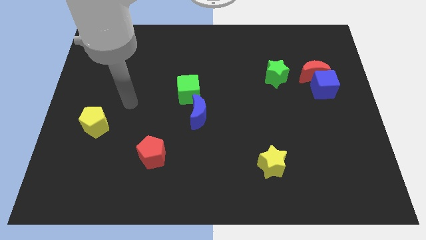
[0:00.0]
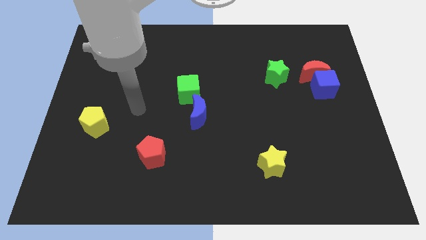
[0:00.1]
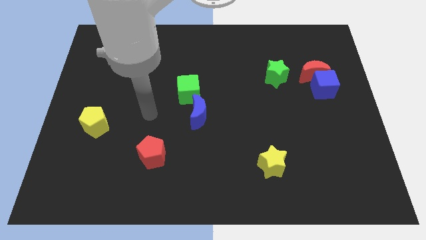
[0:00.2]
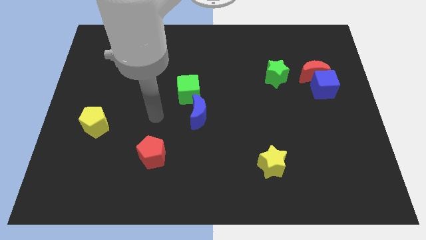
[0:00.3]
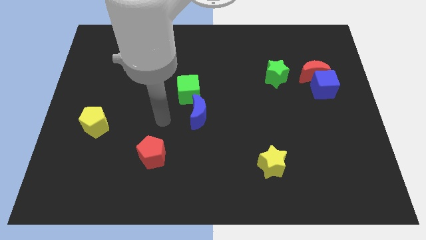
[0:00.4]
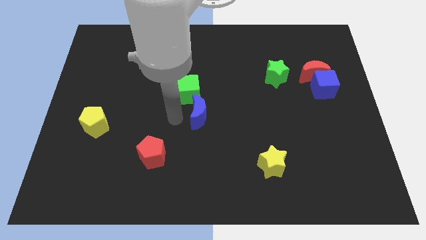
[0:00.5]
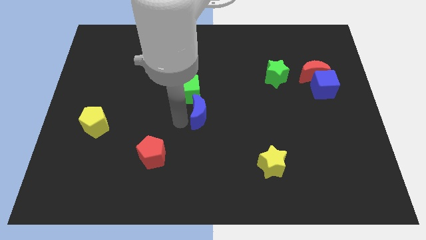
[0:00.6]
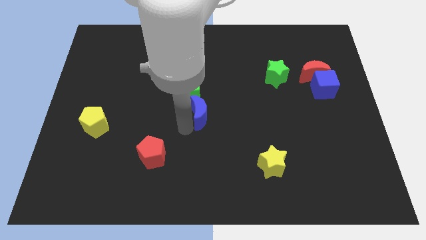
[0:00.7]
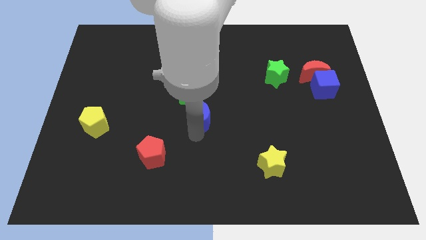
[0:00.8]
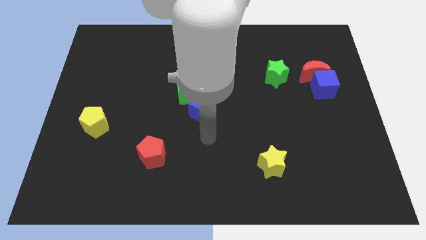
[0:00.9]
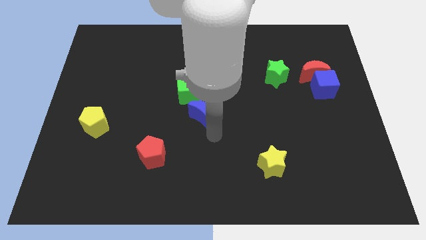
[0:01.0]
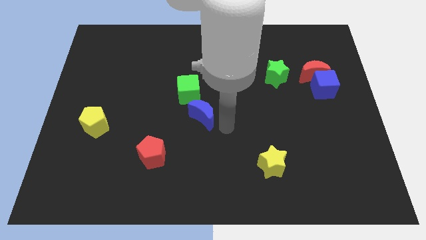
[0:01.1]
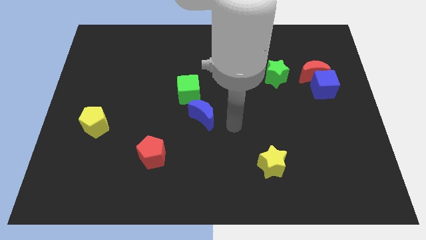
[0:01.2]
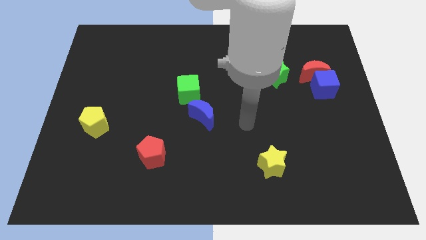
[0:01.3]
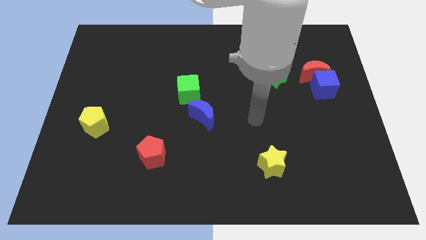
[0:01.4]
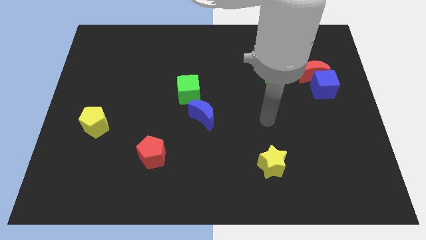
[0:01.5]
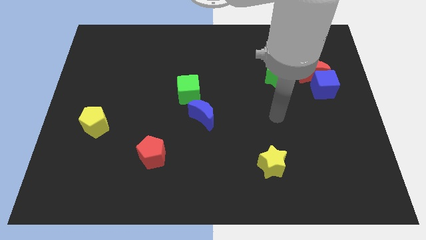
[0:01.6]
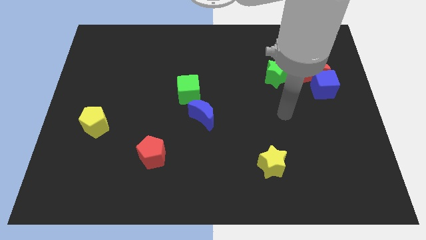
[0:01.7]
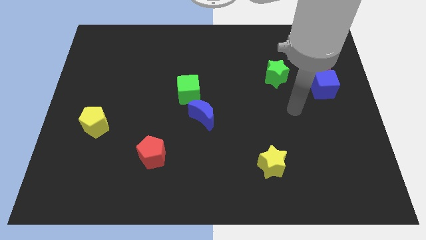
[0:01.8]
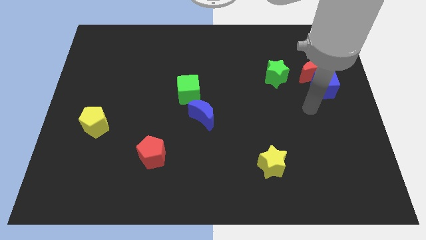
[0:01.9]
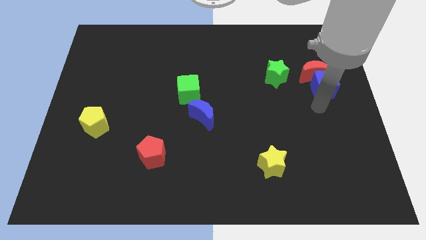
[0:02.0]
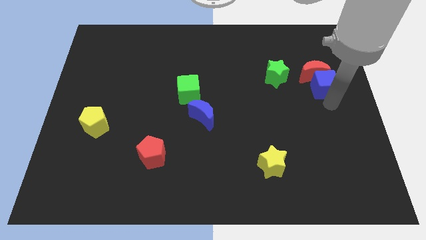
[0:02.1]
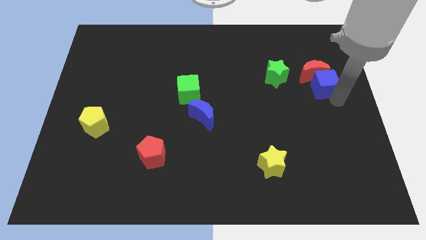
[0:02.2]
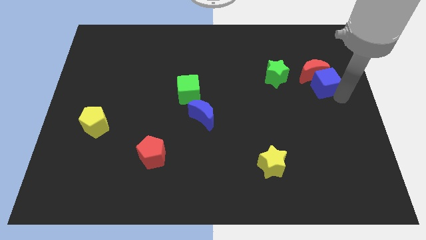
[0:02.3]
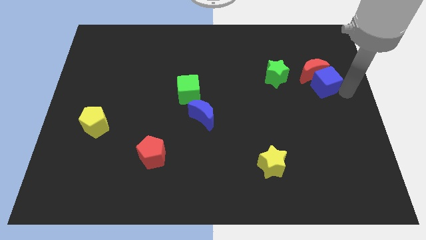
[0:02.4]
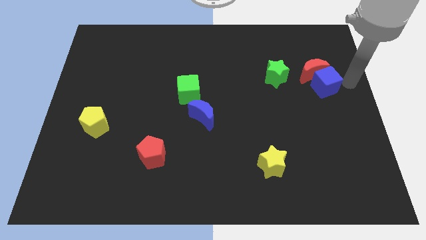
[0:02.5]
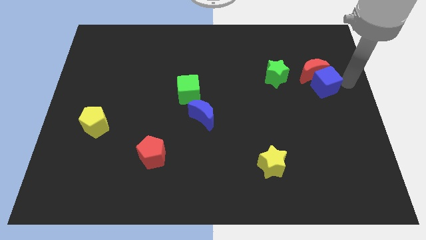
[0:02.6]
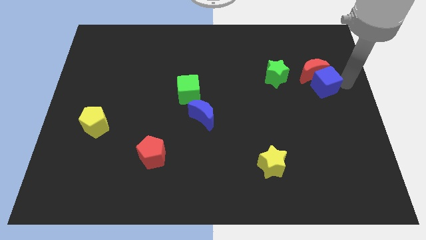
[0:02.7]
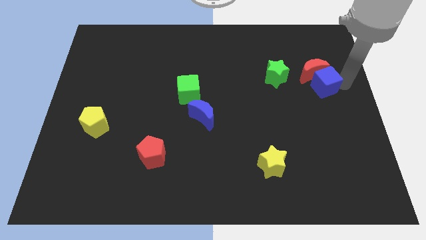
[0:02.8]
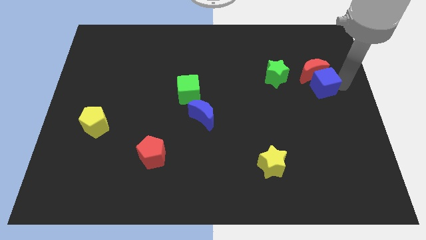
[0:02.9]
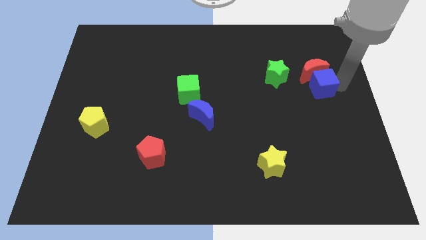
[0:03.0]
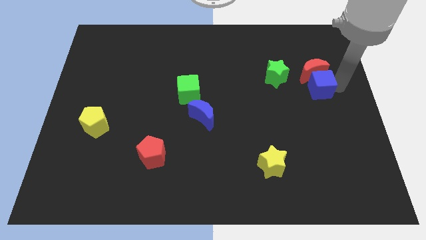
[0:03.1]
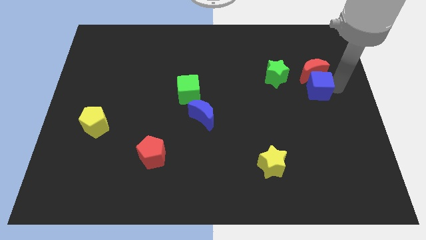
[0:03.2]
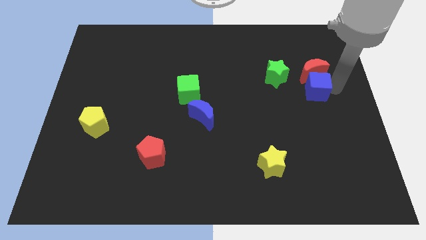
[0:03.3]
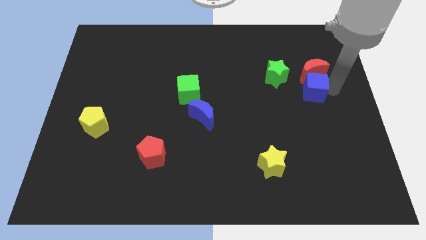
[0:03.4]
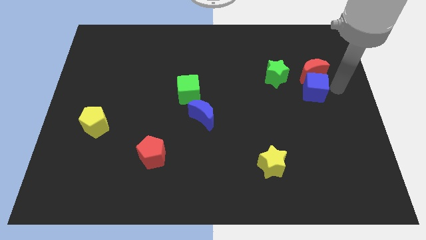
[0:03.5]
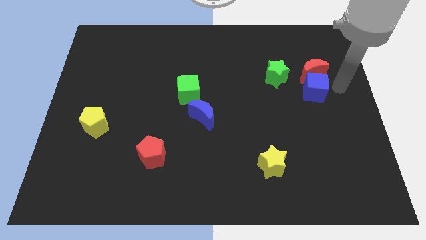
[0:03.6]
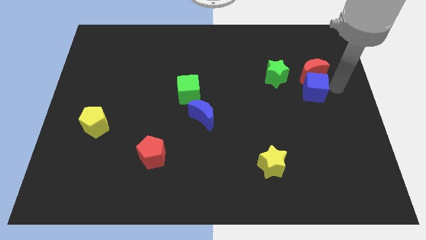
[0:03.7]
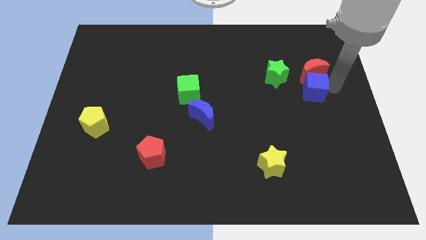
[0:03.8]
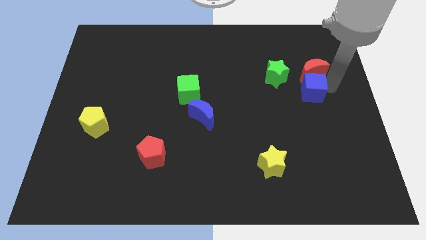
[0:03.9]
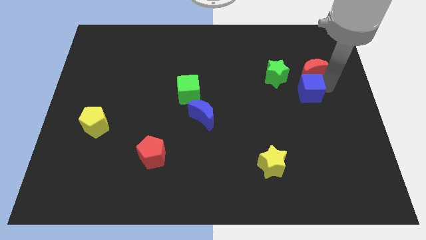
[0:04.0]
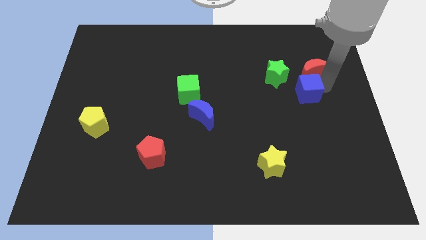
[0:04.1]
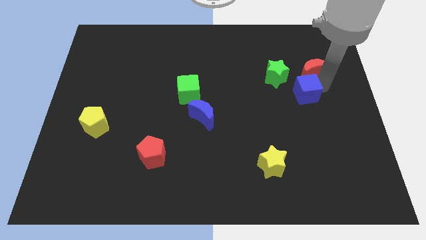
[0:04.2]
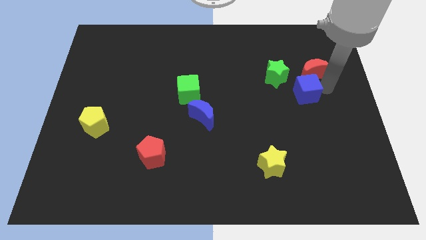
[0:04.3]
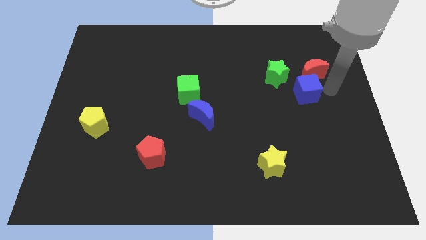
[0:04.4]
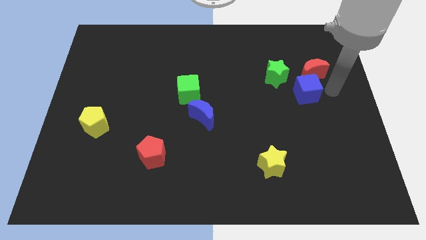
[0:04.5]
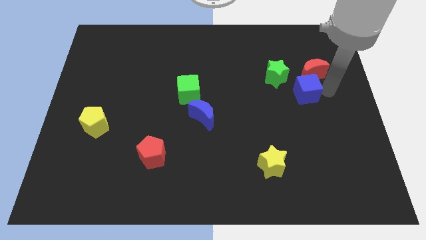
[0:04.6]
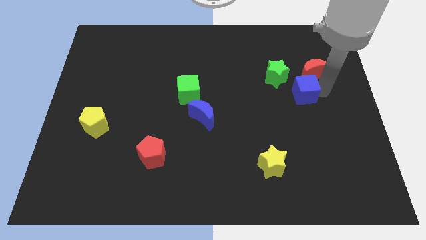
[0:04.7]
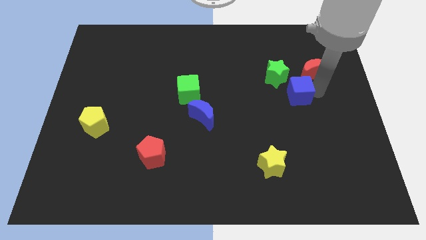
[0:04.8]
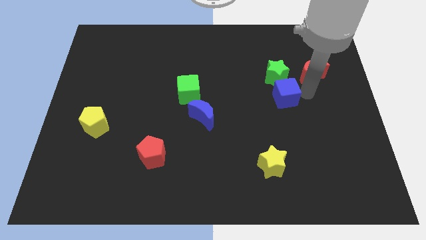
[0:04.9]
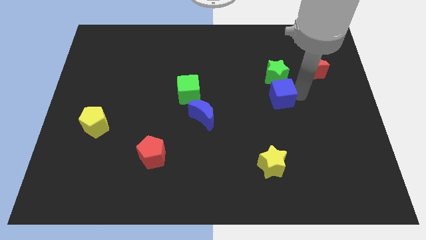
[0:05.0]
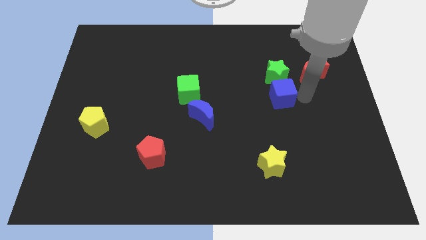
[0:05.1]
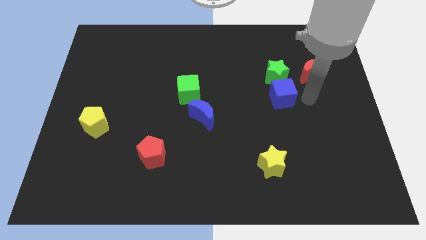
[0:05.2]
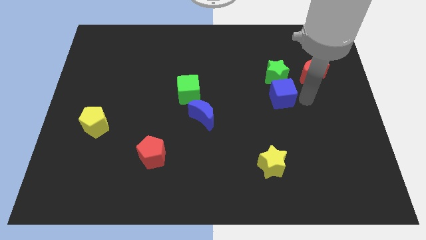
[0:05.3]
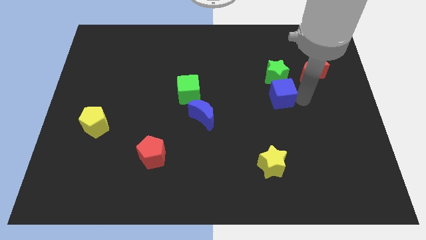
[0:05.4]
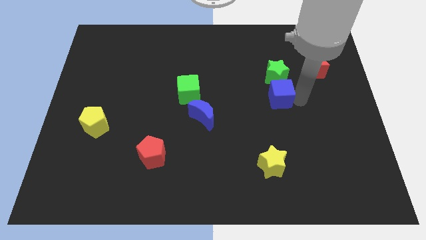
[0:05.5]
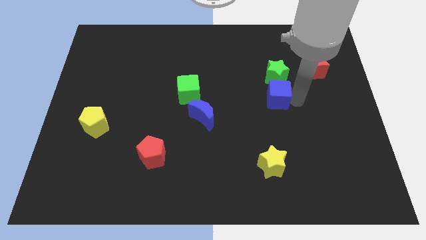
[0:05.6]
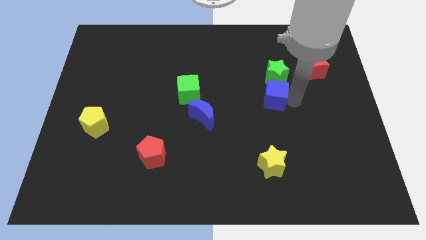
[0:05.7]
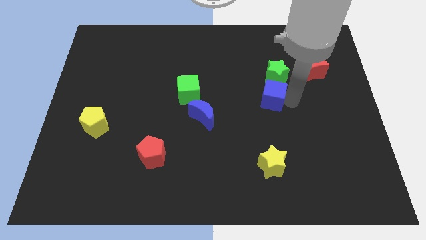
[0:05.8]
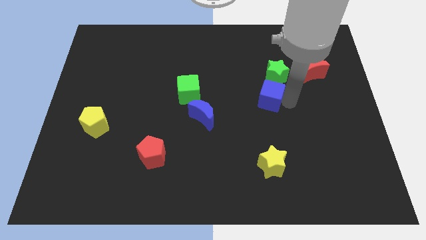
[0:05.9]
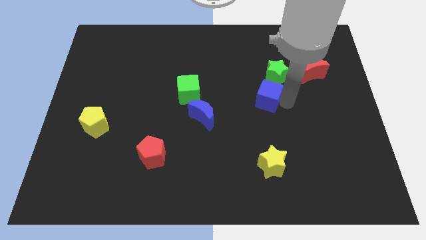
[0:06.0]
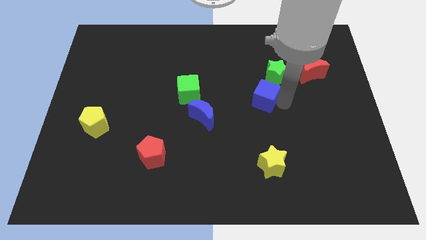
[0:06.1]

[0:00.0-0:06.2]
push the blue cube to the middle

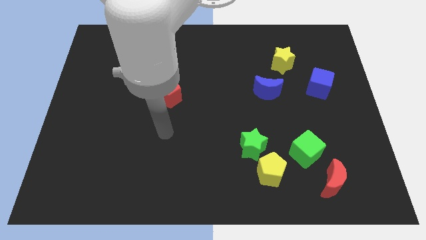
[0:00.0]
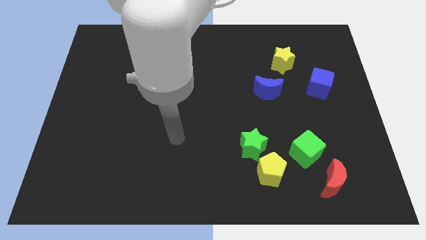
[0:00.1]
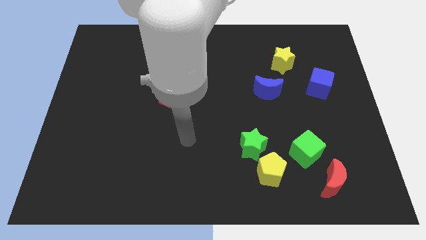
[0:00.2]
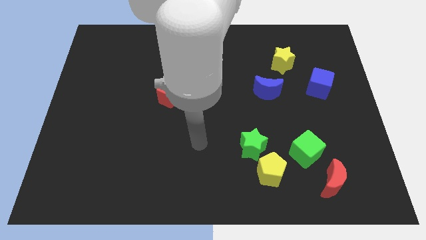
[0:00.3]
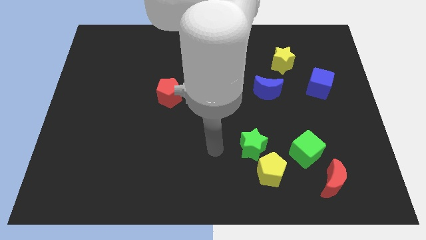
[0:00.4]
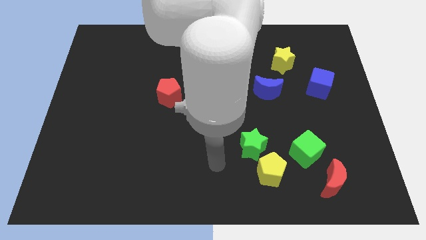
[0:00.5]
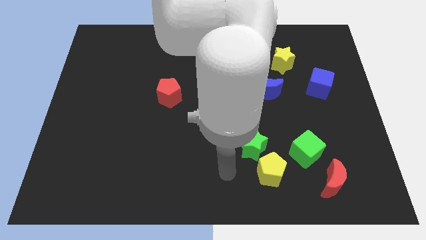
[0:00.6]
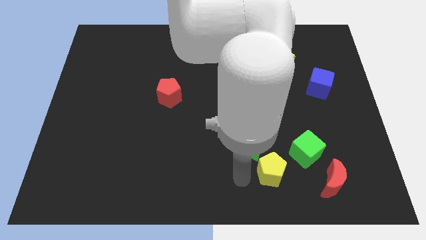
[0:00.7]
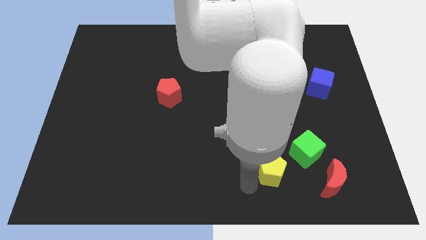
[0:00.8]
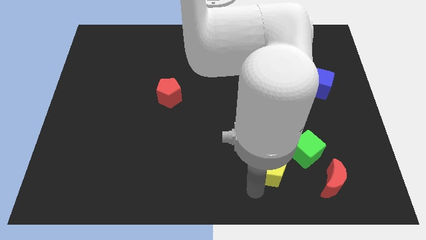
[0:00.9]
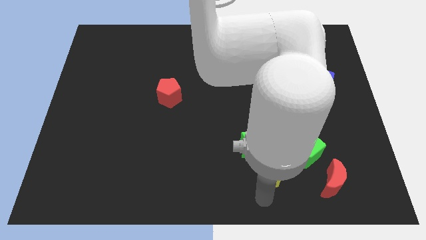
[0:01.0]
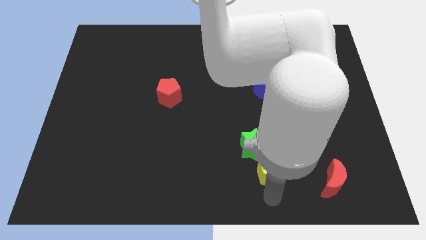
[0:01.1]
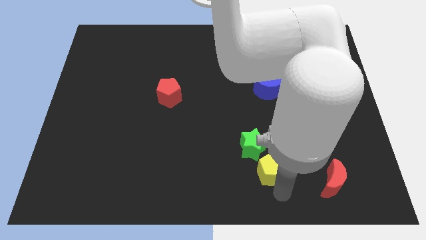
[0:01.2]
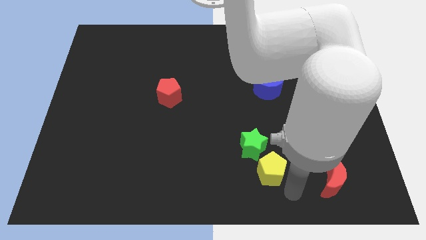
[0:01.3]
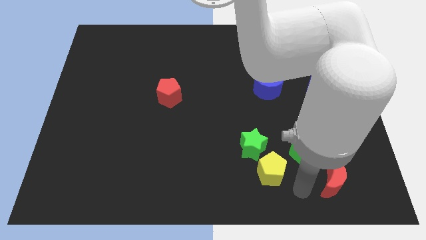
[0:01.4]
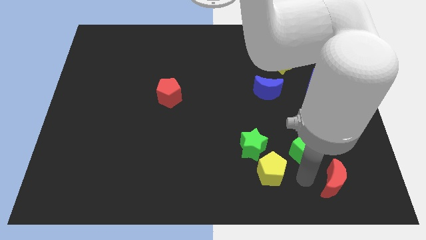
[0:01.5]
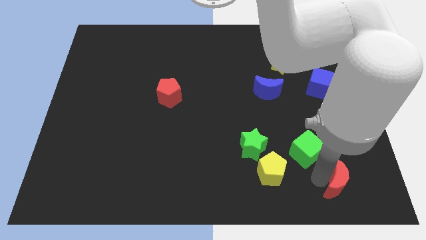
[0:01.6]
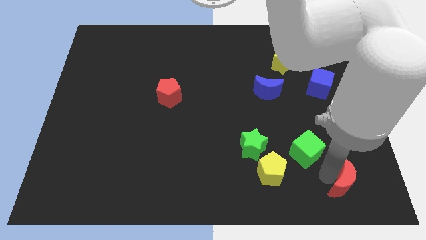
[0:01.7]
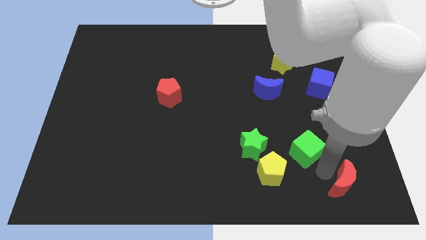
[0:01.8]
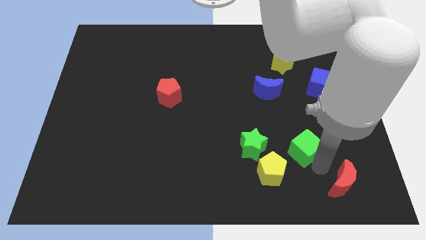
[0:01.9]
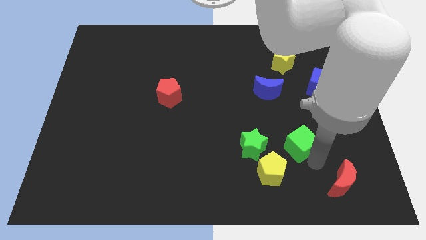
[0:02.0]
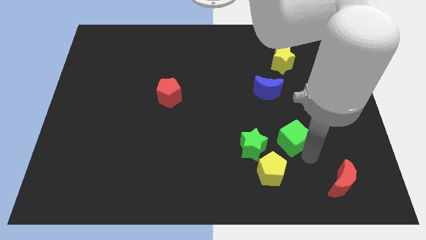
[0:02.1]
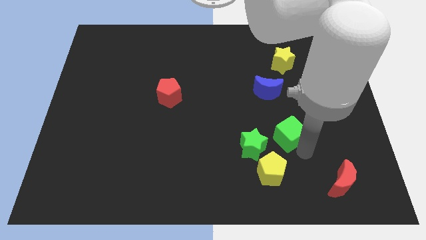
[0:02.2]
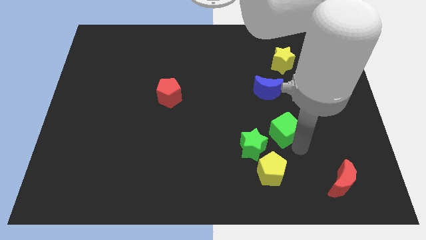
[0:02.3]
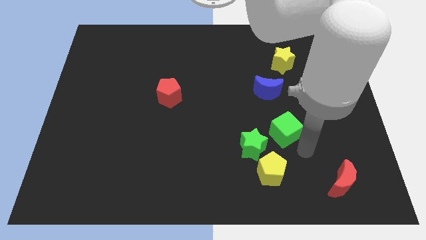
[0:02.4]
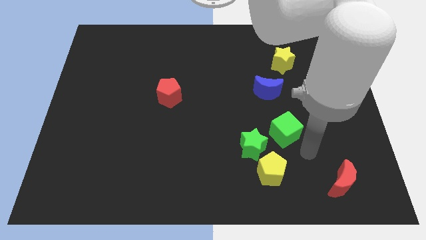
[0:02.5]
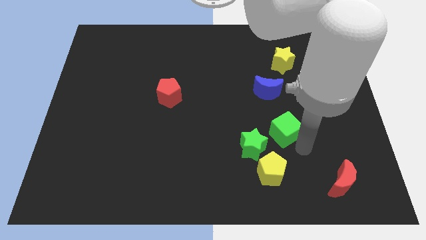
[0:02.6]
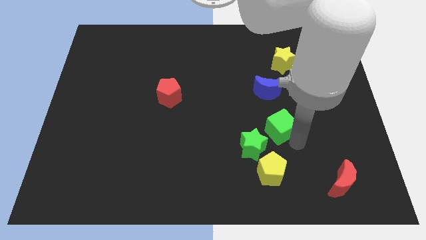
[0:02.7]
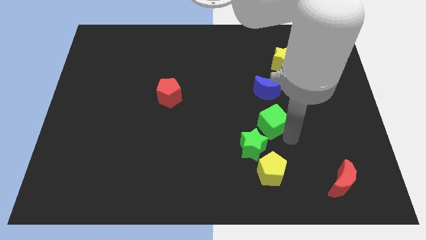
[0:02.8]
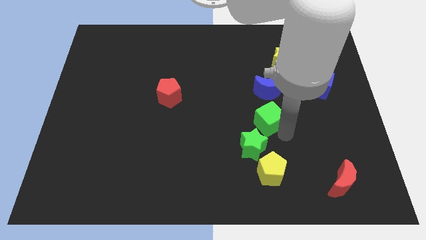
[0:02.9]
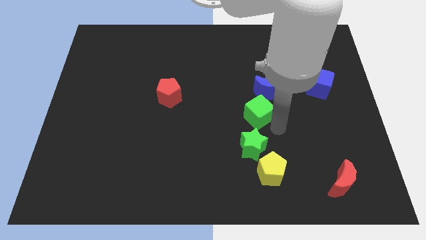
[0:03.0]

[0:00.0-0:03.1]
push the green cube to the middle
